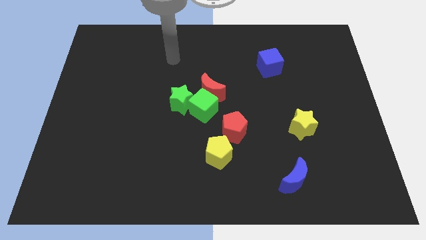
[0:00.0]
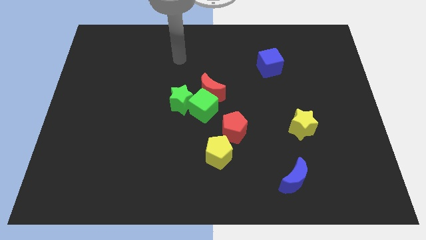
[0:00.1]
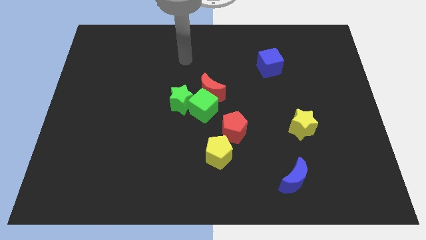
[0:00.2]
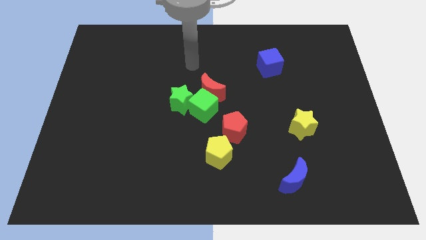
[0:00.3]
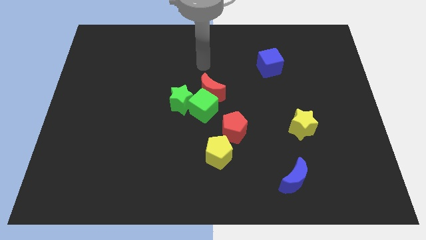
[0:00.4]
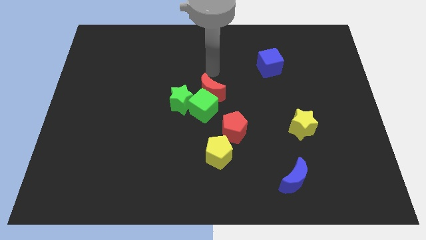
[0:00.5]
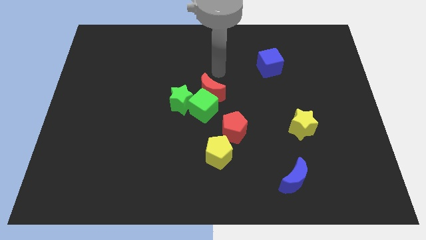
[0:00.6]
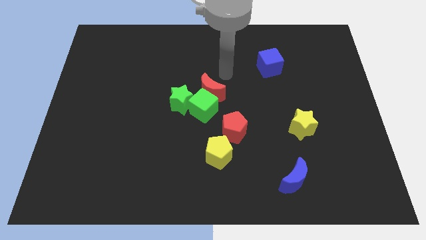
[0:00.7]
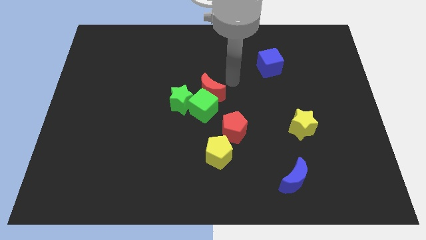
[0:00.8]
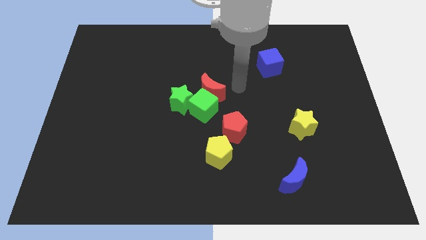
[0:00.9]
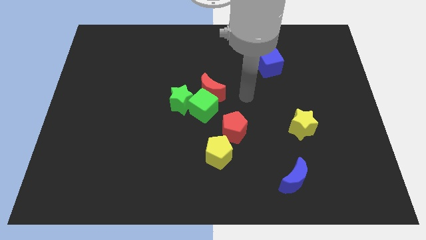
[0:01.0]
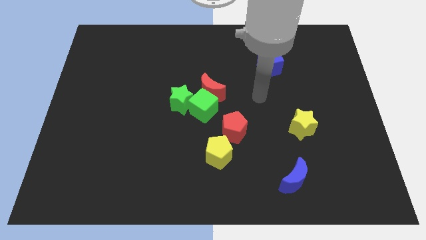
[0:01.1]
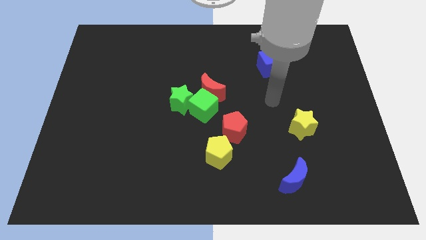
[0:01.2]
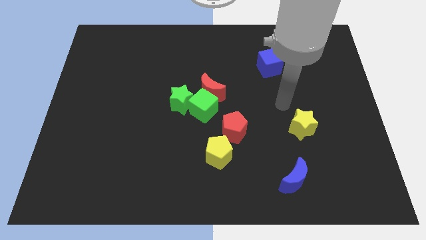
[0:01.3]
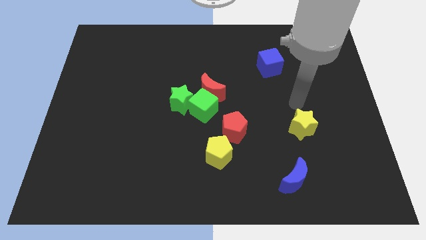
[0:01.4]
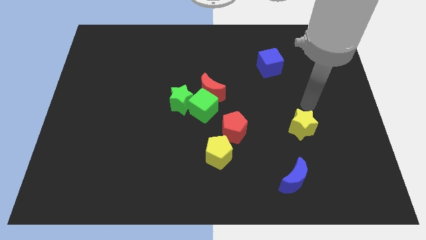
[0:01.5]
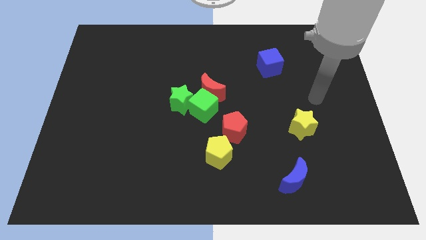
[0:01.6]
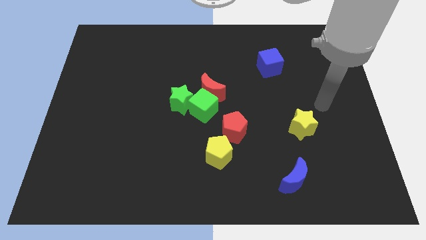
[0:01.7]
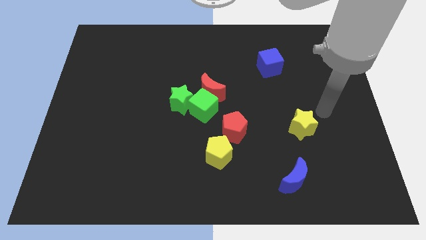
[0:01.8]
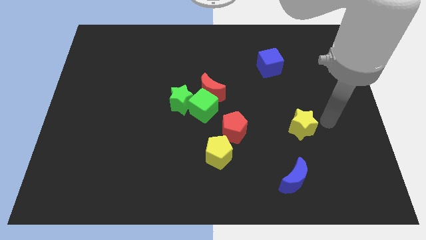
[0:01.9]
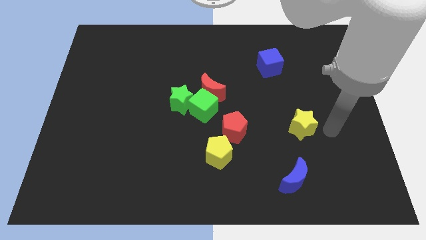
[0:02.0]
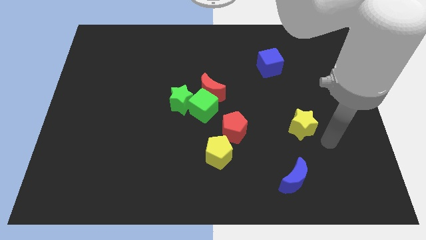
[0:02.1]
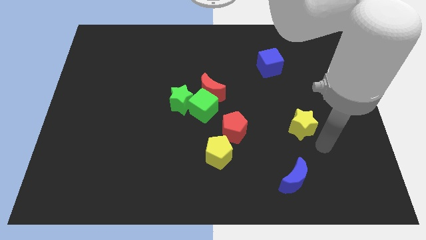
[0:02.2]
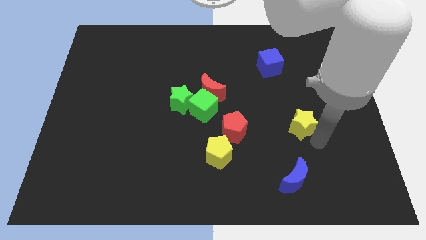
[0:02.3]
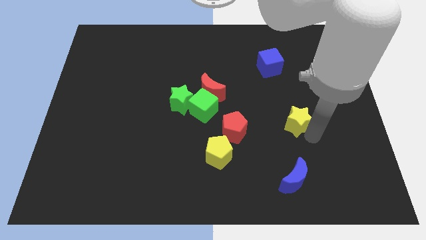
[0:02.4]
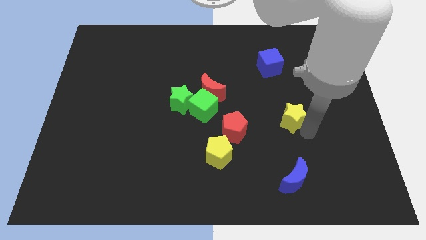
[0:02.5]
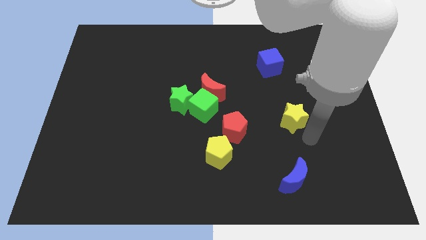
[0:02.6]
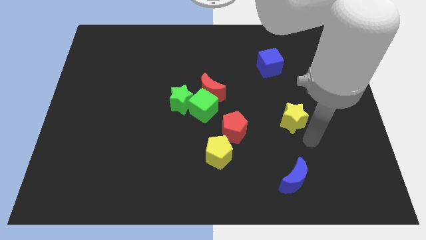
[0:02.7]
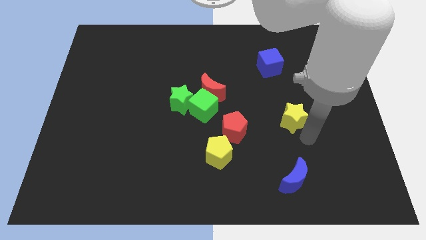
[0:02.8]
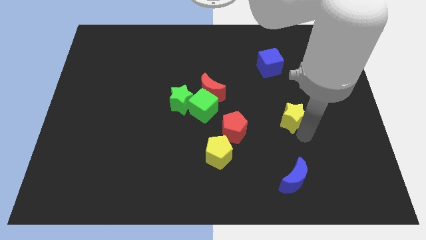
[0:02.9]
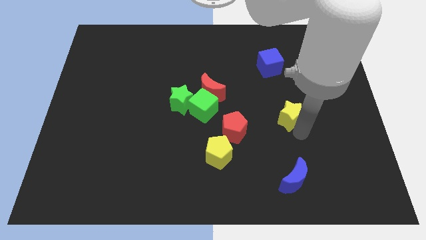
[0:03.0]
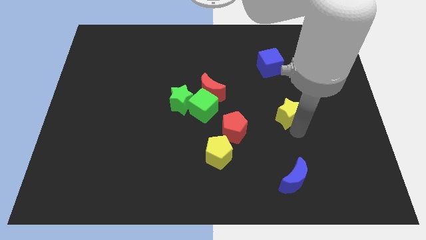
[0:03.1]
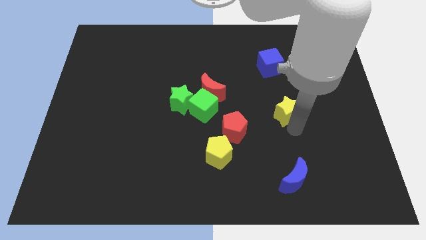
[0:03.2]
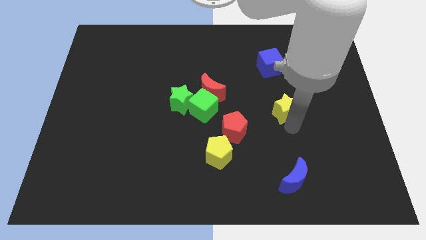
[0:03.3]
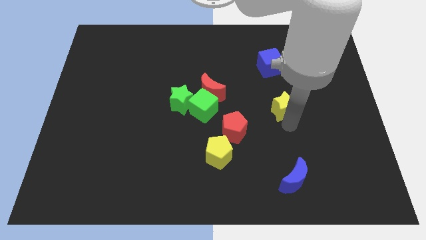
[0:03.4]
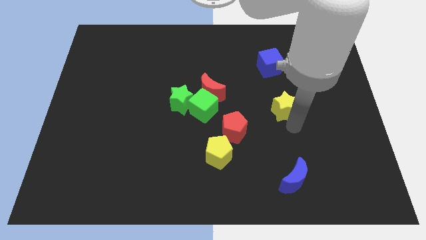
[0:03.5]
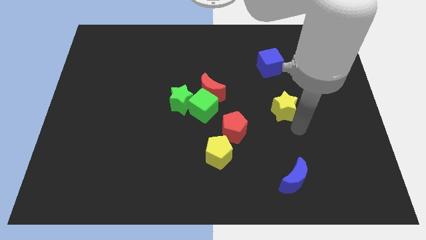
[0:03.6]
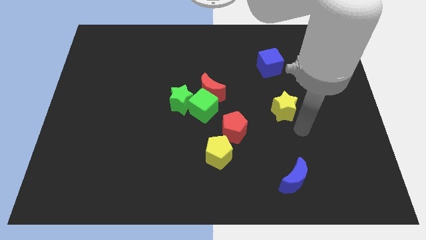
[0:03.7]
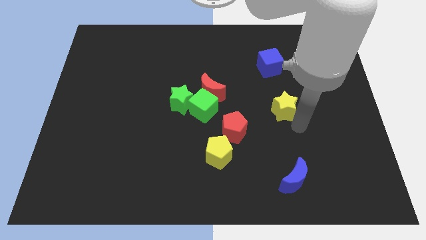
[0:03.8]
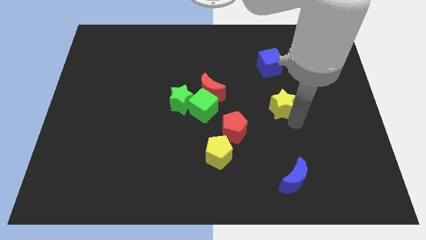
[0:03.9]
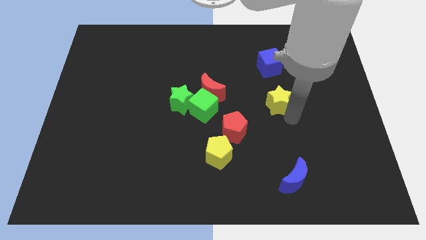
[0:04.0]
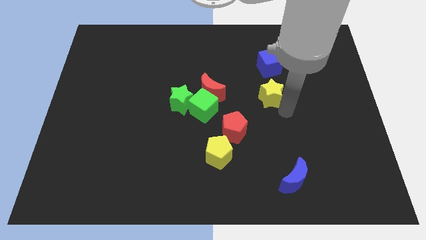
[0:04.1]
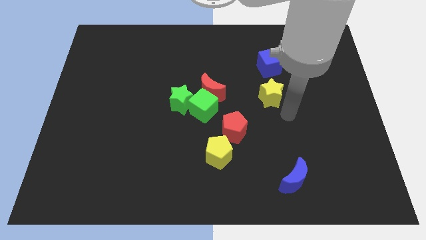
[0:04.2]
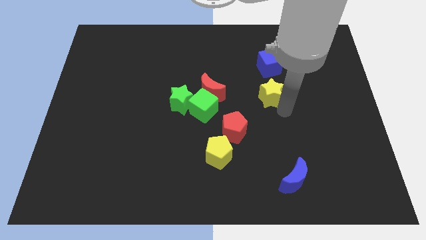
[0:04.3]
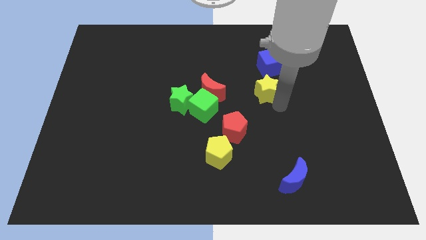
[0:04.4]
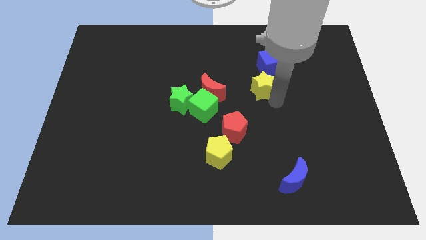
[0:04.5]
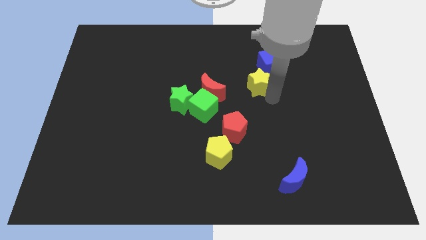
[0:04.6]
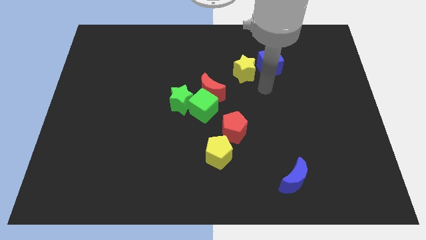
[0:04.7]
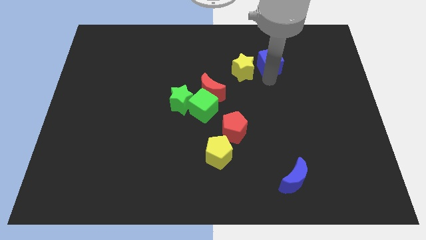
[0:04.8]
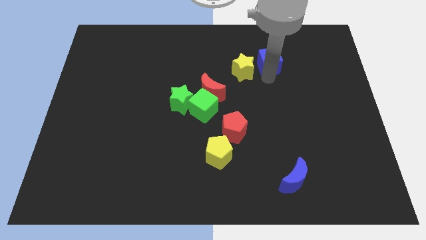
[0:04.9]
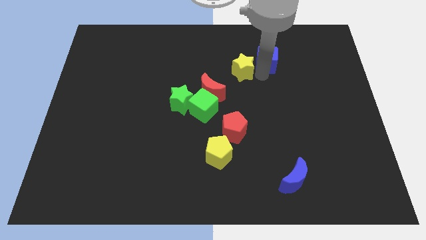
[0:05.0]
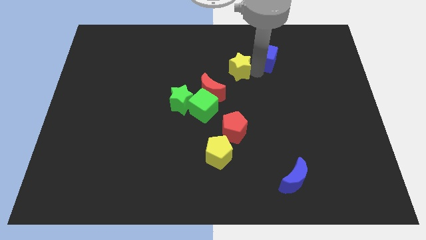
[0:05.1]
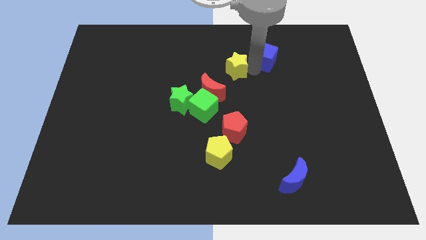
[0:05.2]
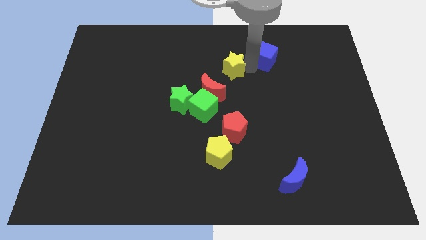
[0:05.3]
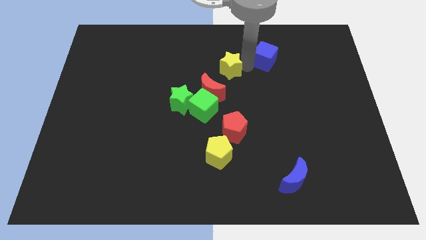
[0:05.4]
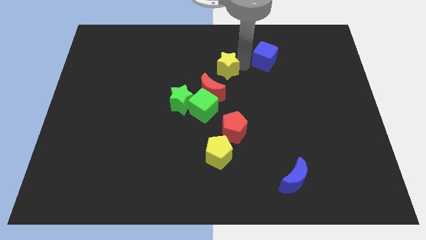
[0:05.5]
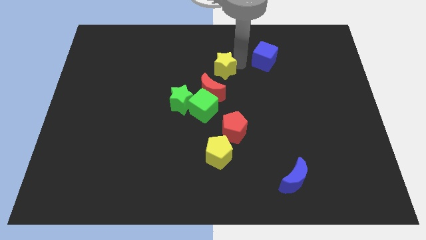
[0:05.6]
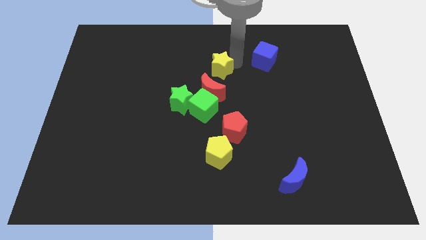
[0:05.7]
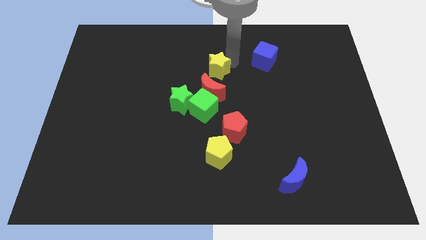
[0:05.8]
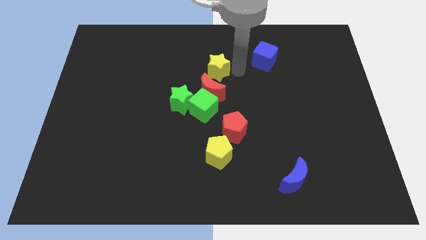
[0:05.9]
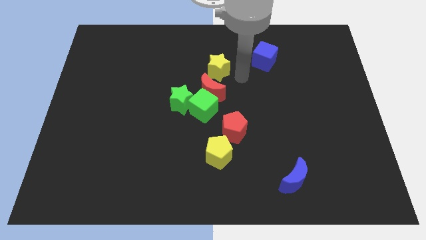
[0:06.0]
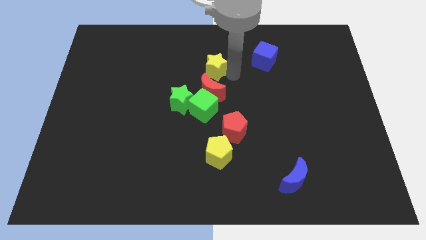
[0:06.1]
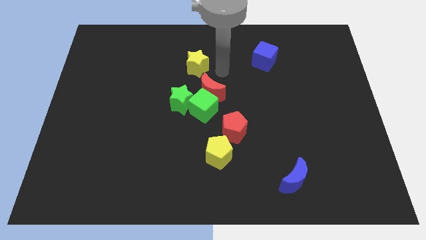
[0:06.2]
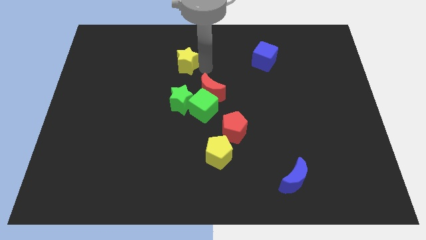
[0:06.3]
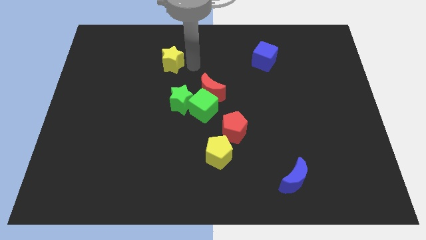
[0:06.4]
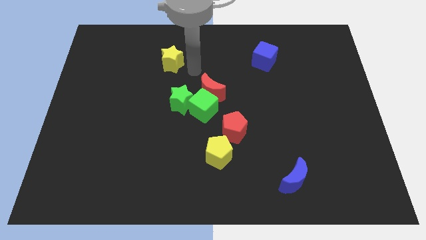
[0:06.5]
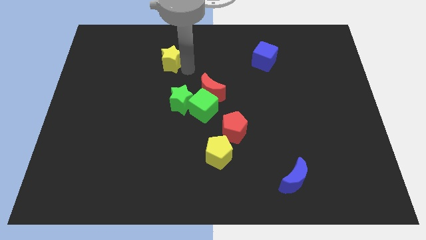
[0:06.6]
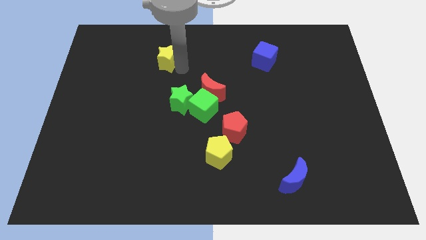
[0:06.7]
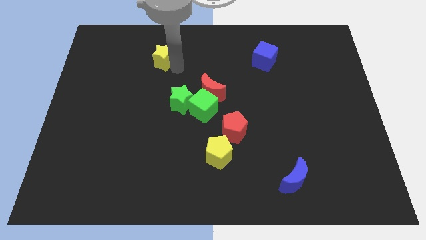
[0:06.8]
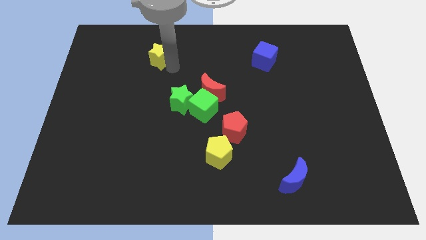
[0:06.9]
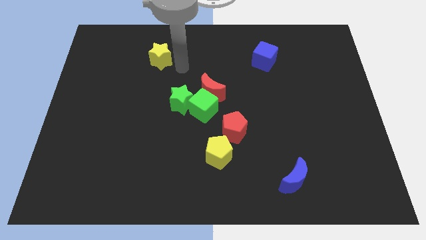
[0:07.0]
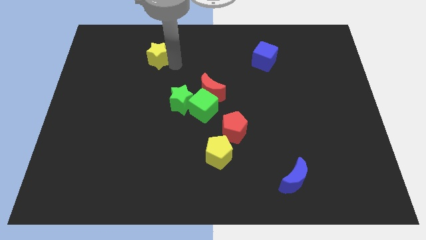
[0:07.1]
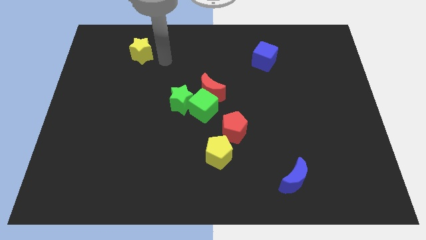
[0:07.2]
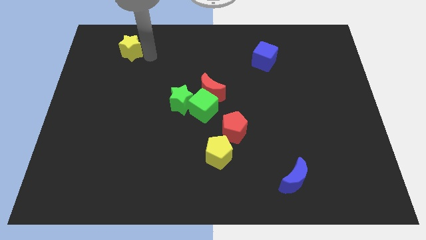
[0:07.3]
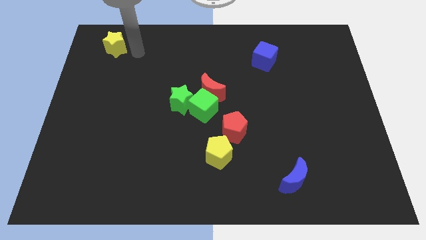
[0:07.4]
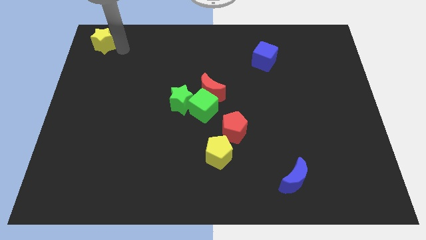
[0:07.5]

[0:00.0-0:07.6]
put the yellow star to the top left
